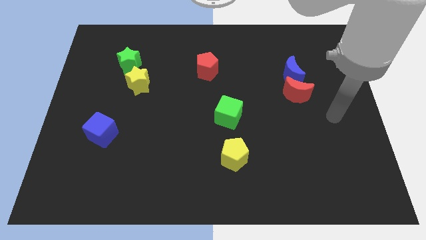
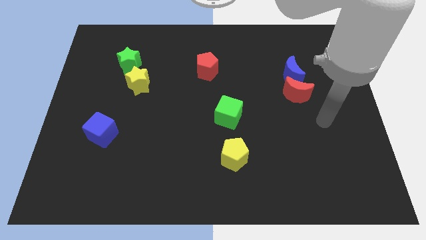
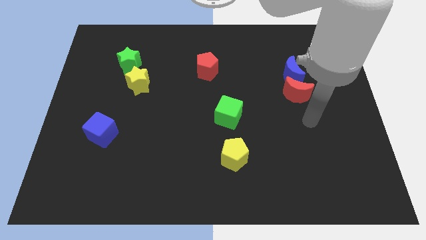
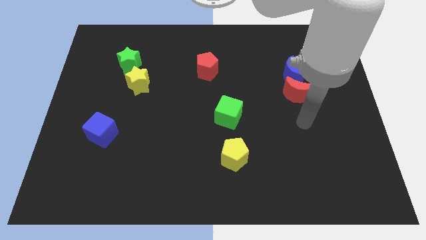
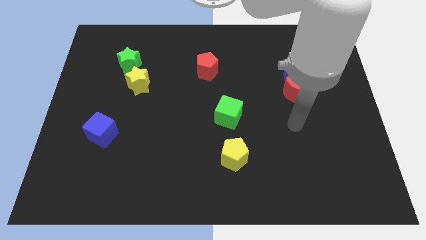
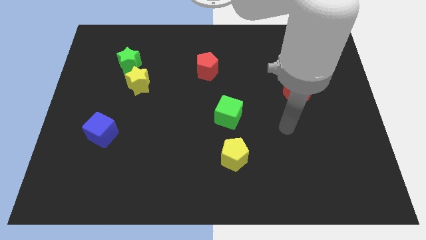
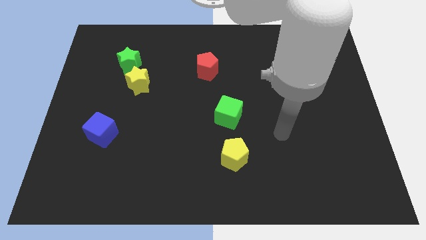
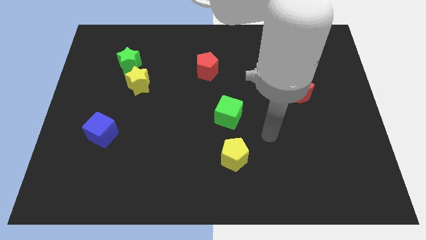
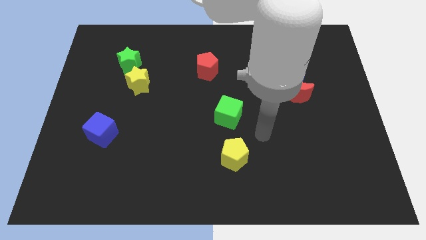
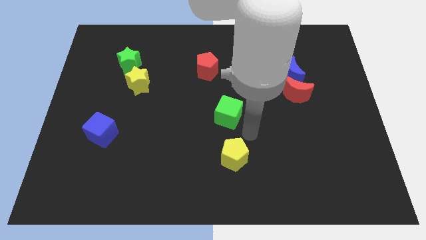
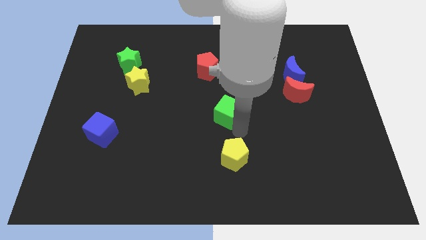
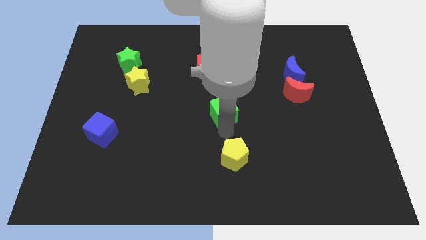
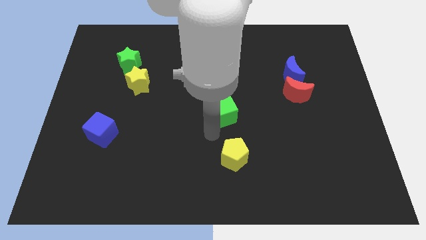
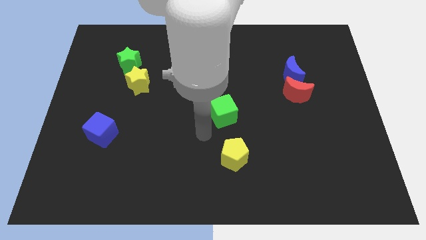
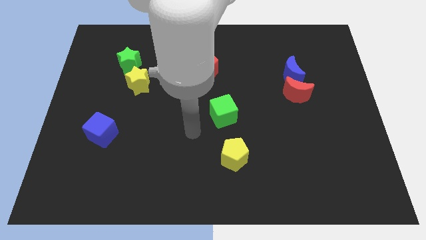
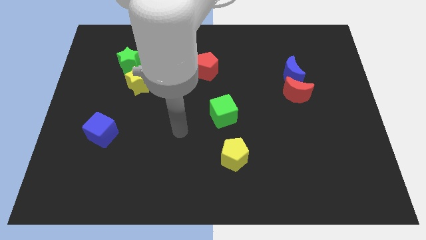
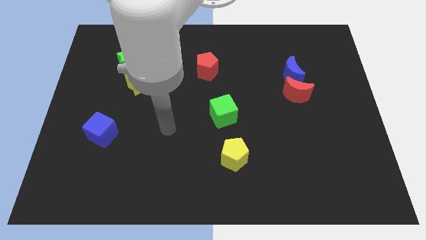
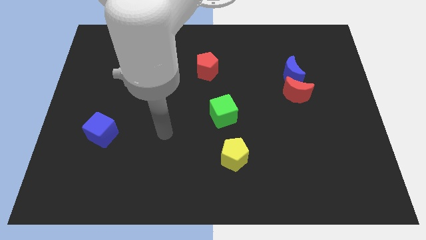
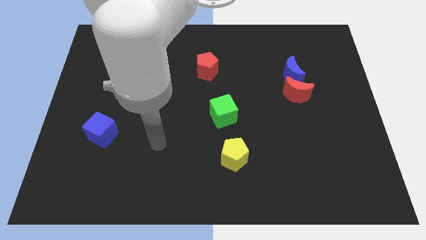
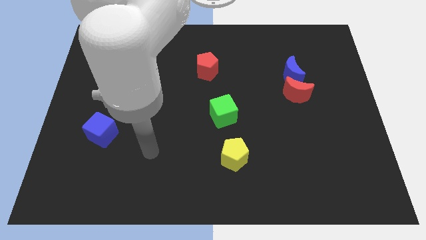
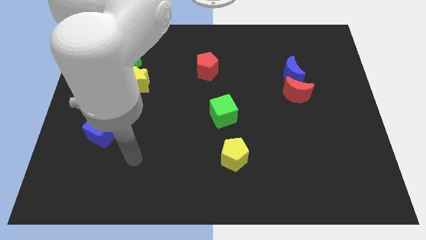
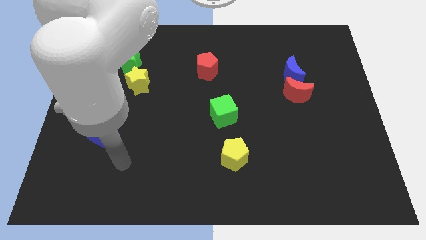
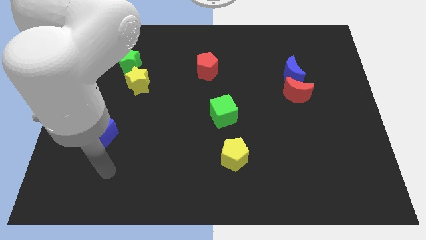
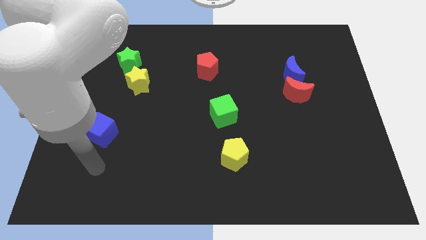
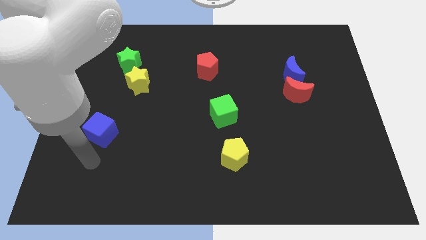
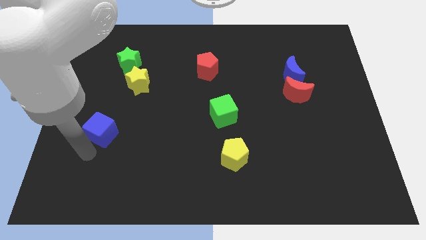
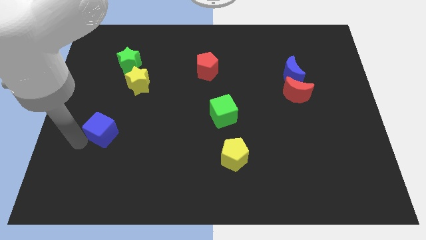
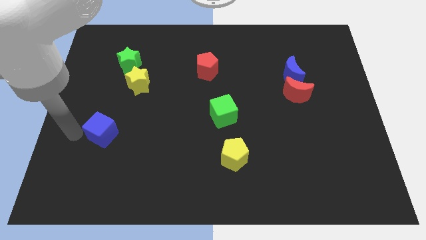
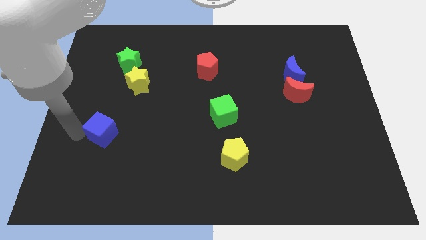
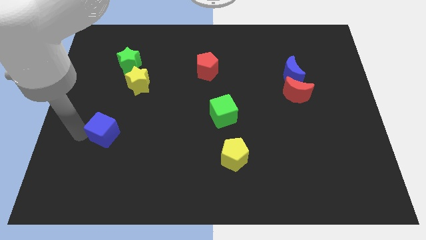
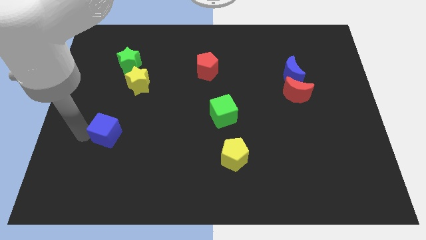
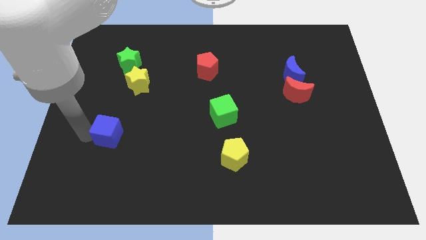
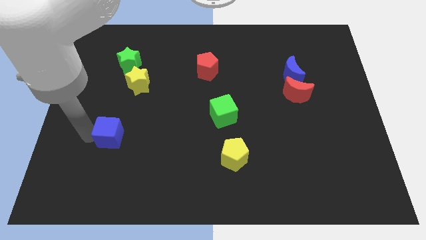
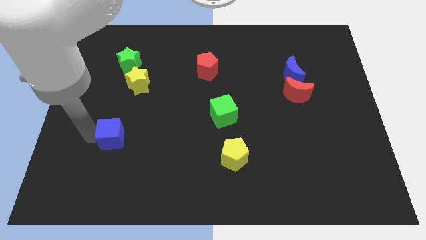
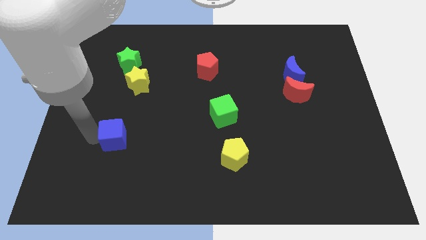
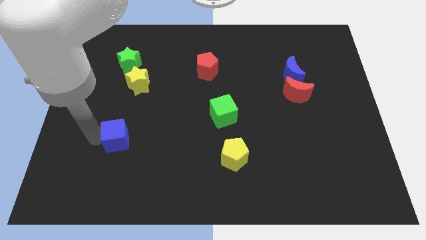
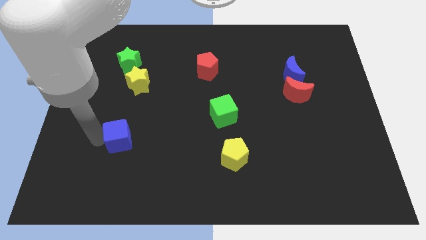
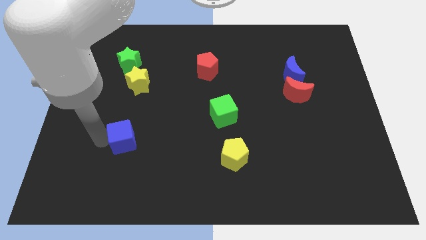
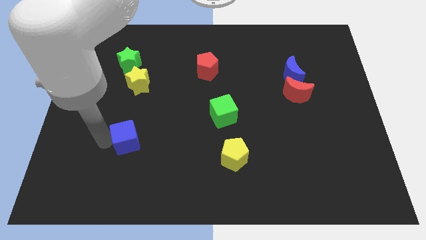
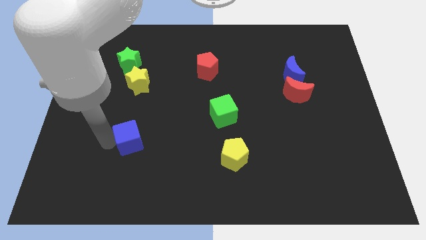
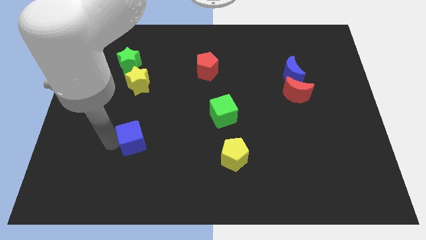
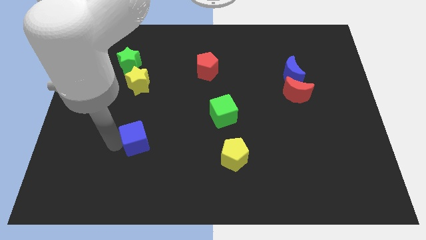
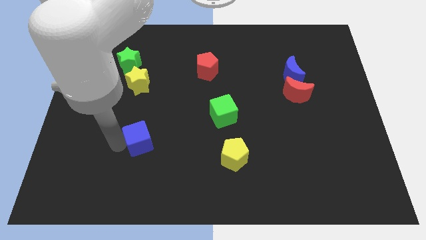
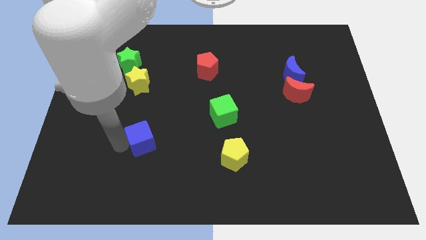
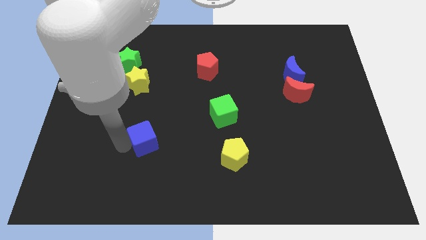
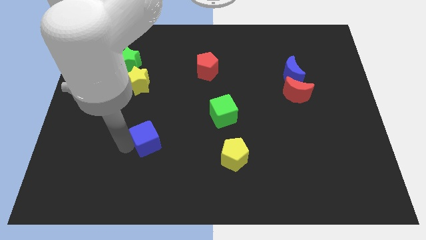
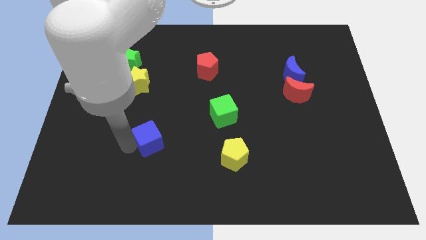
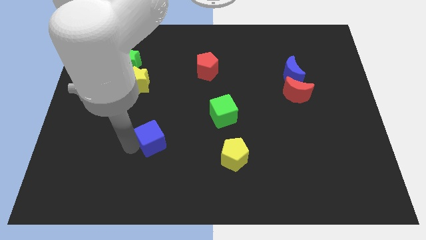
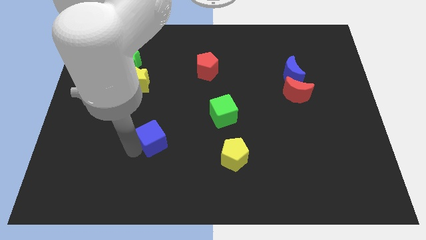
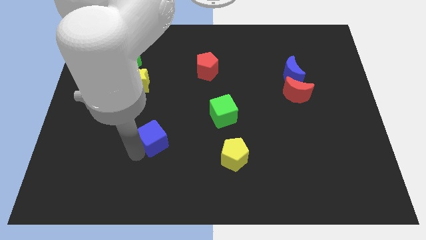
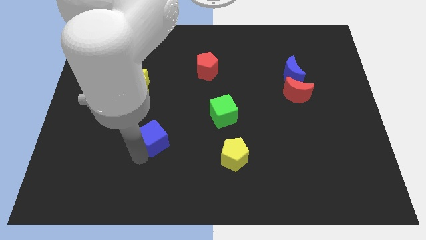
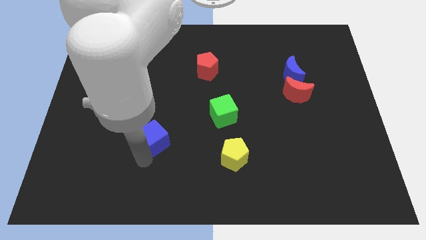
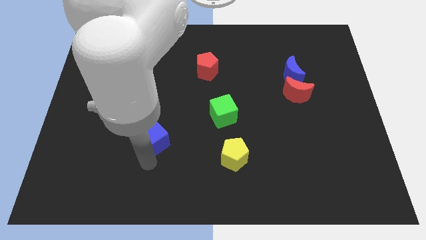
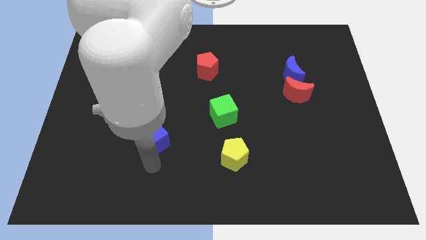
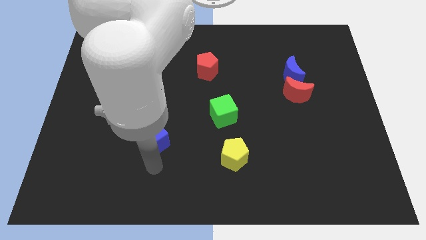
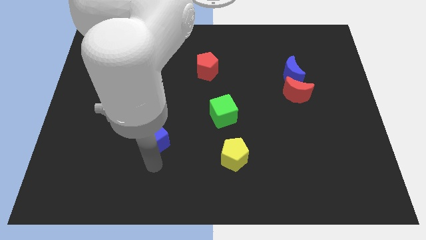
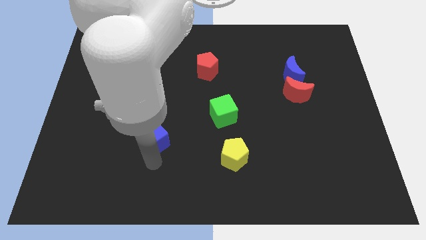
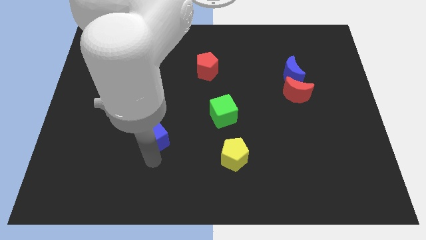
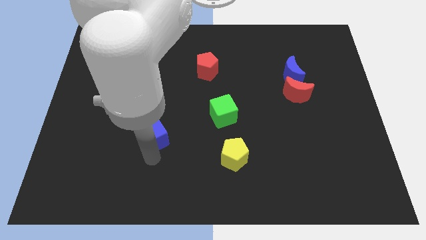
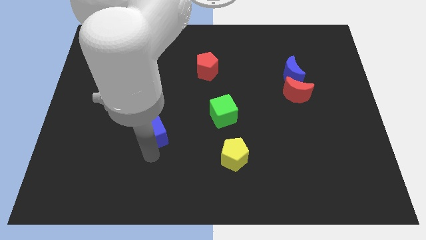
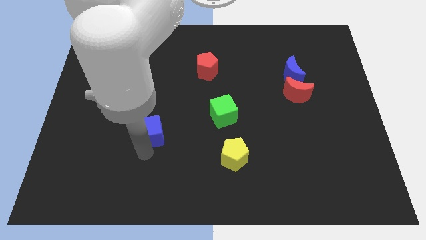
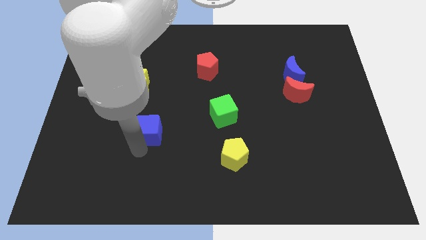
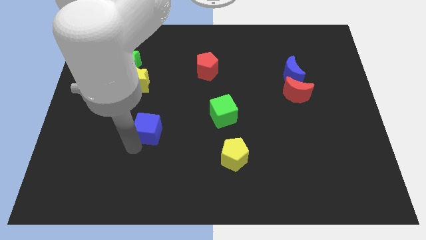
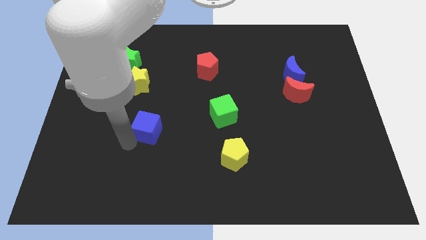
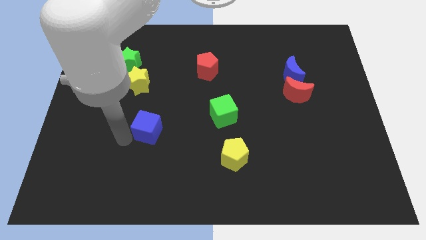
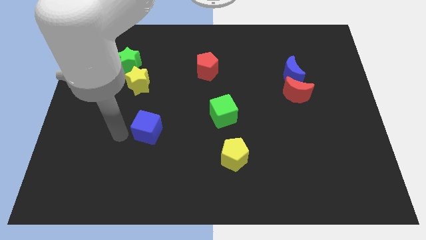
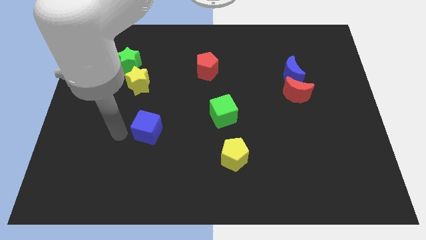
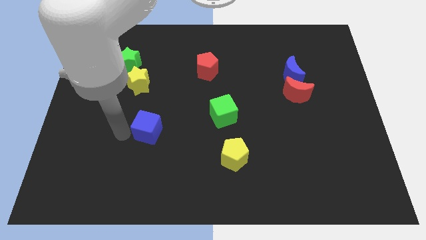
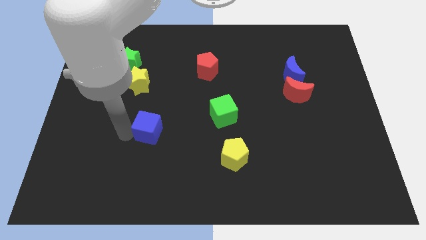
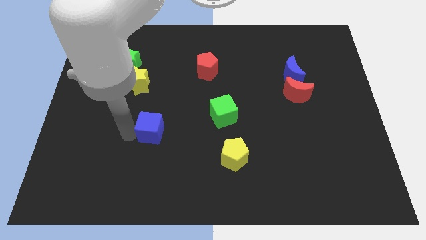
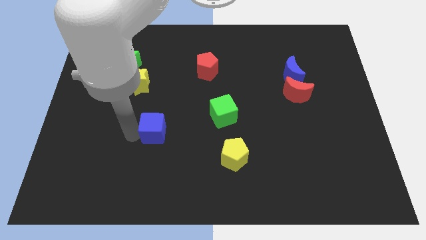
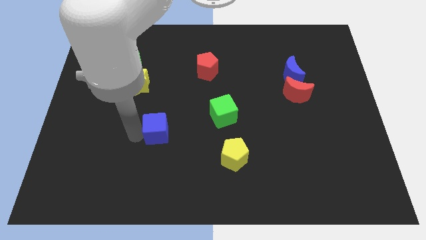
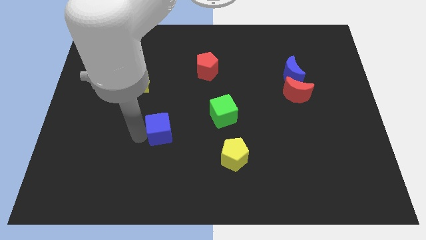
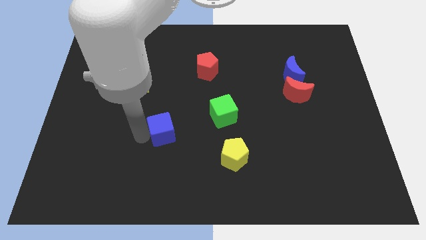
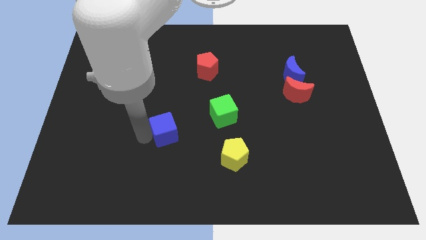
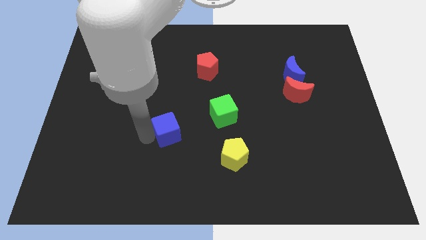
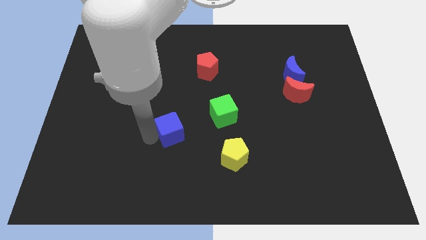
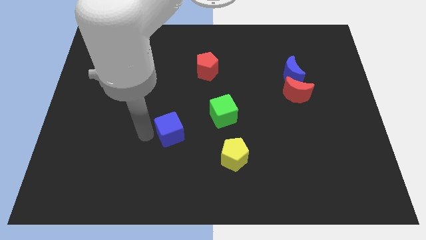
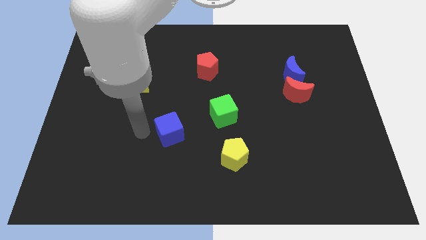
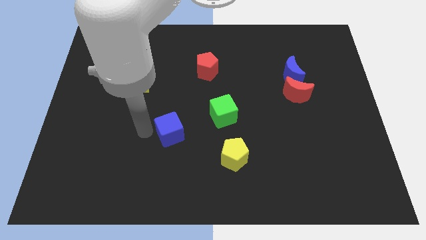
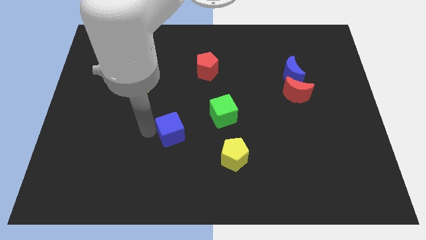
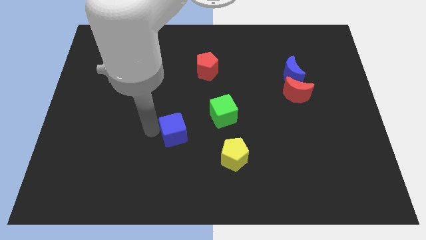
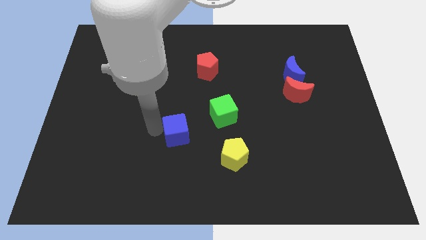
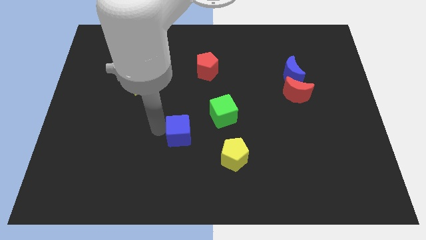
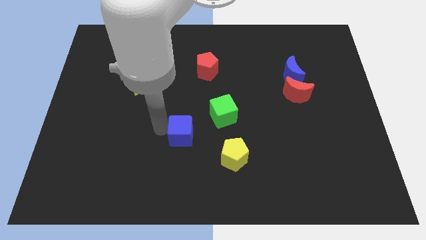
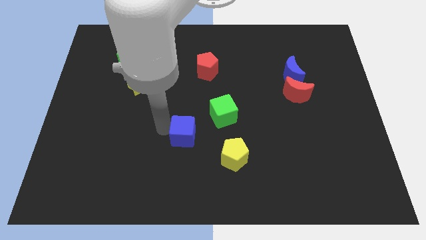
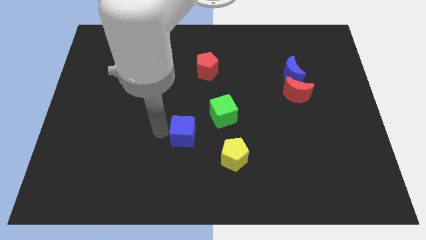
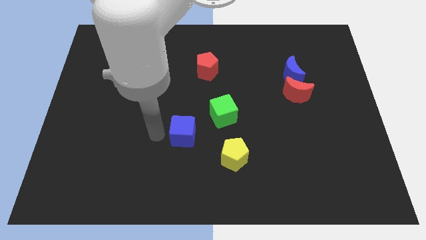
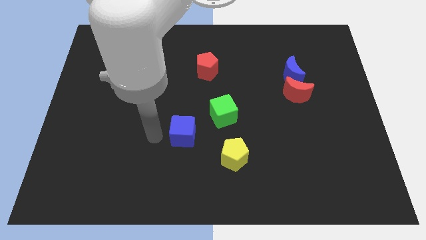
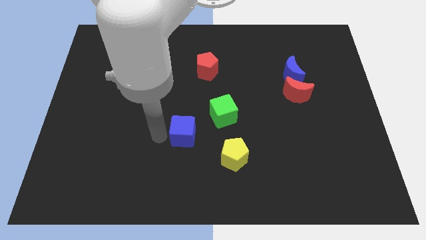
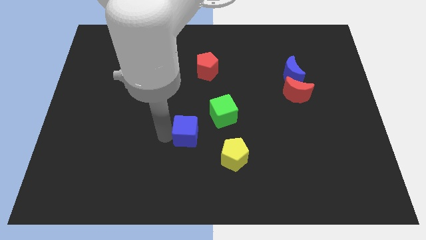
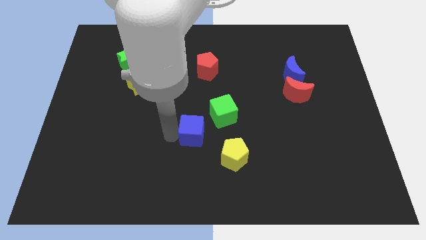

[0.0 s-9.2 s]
push the blue cube right
